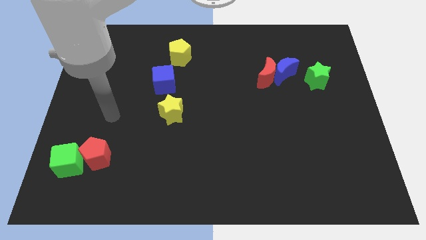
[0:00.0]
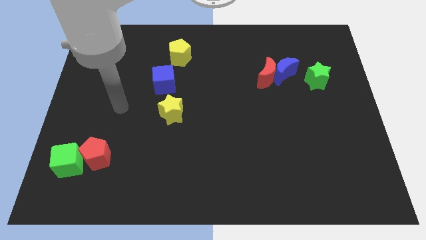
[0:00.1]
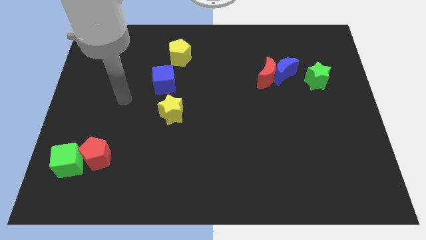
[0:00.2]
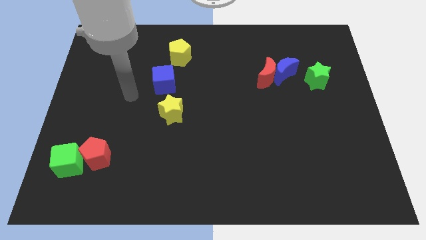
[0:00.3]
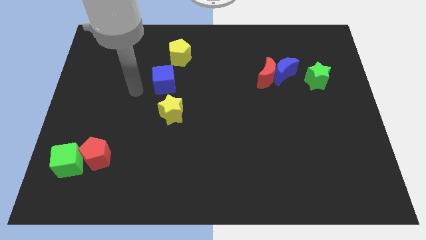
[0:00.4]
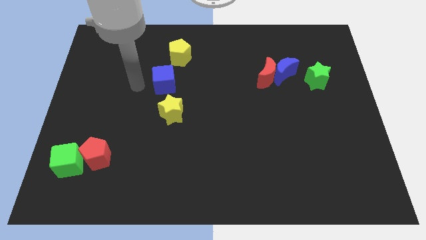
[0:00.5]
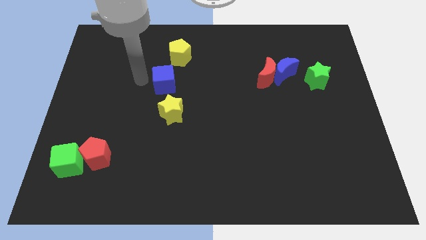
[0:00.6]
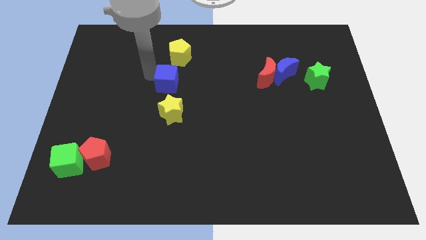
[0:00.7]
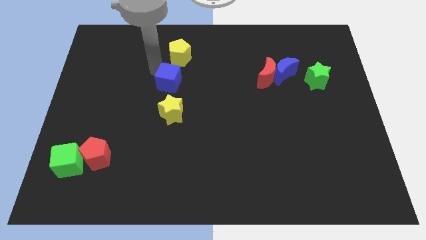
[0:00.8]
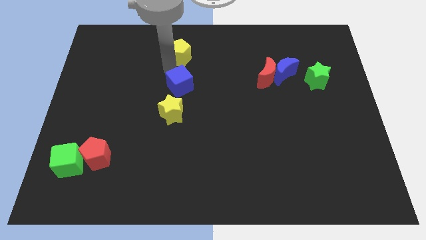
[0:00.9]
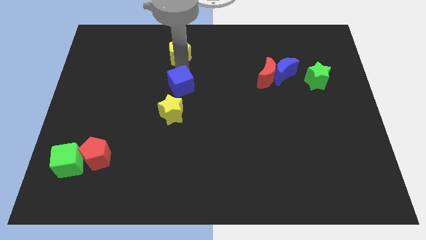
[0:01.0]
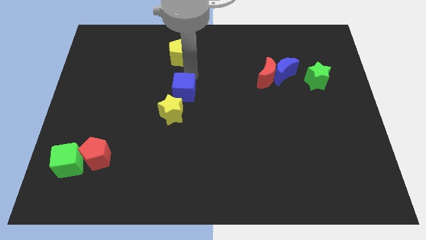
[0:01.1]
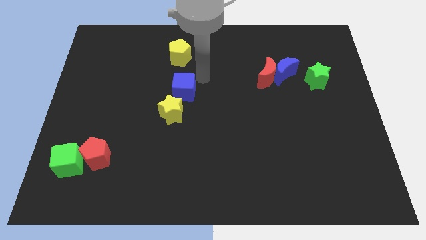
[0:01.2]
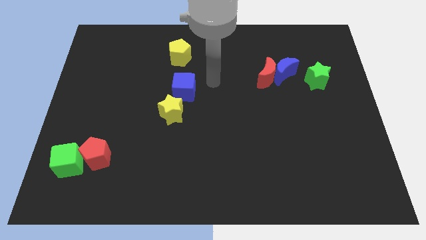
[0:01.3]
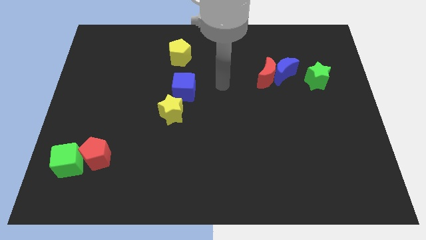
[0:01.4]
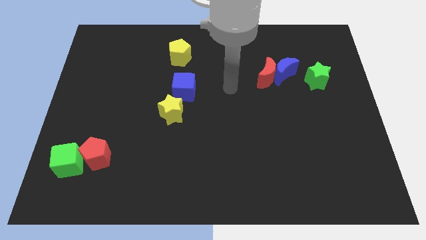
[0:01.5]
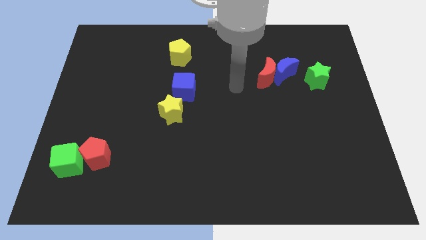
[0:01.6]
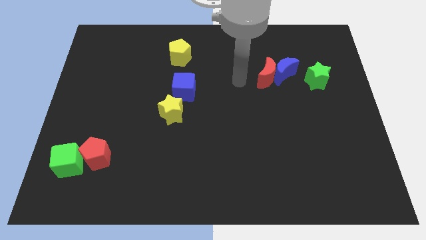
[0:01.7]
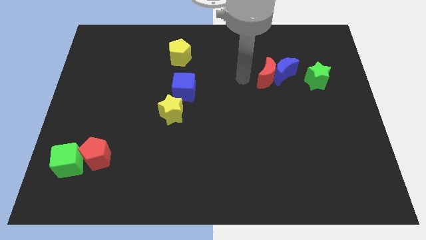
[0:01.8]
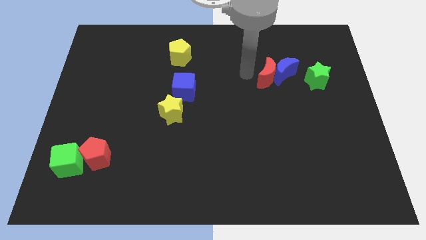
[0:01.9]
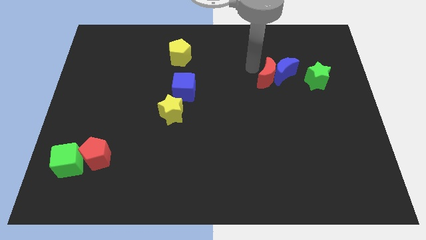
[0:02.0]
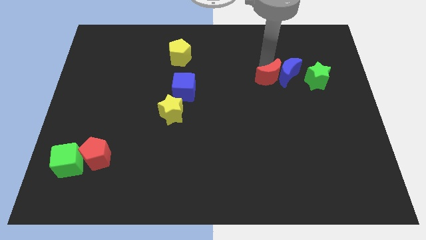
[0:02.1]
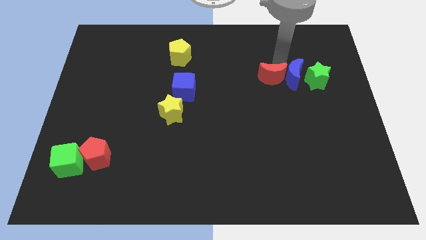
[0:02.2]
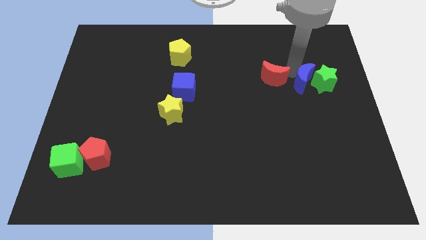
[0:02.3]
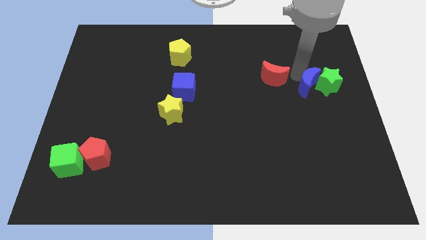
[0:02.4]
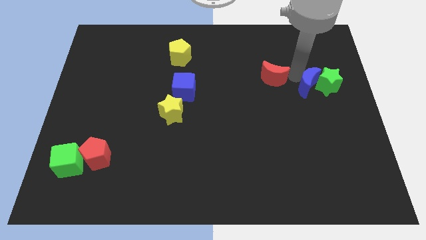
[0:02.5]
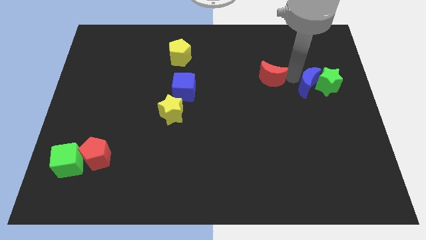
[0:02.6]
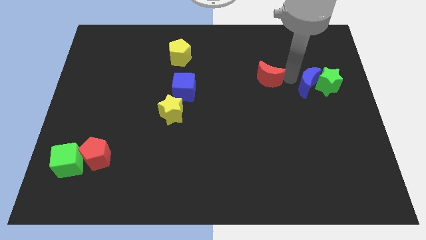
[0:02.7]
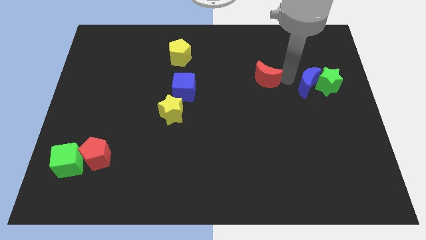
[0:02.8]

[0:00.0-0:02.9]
separate the red moon from the blue moon

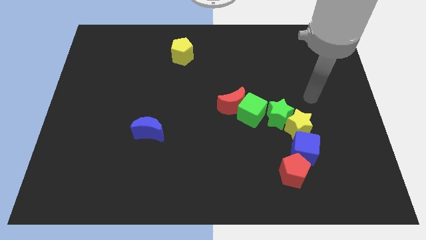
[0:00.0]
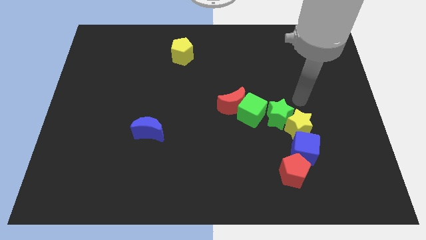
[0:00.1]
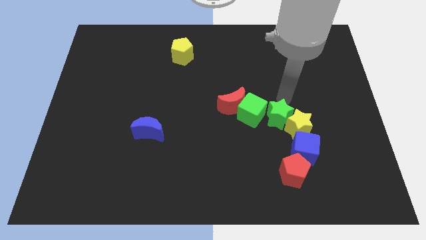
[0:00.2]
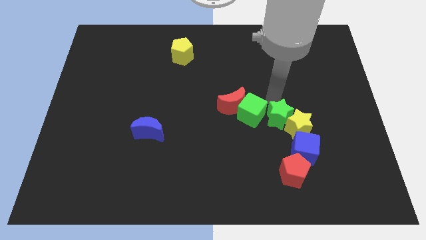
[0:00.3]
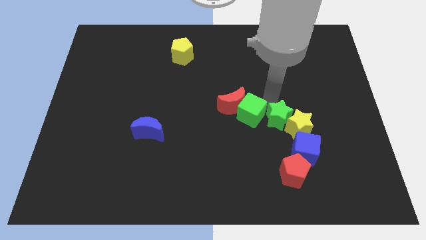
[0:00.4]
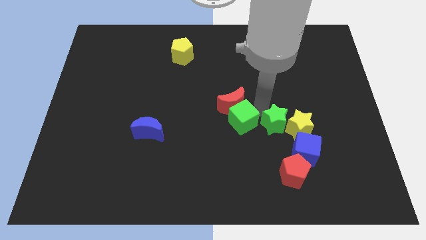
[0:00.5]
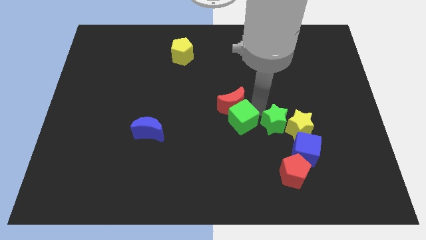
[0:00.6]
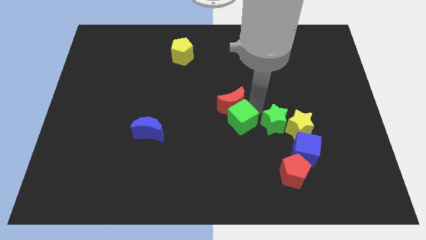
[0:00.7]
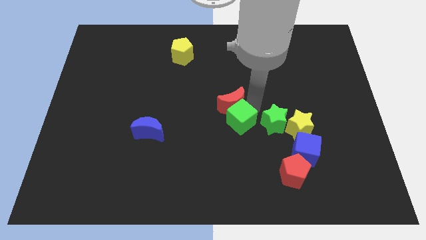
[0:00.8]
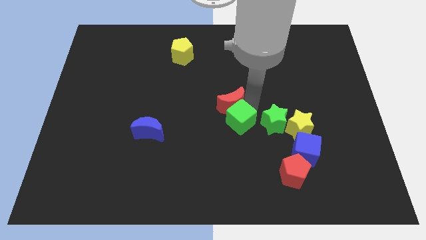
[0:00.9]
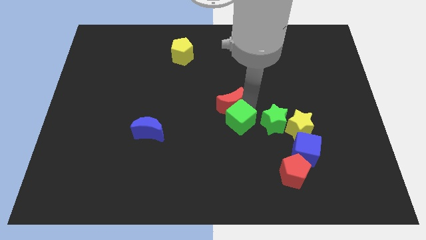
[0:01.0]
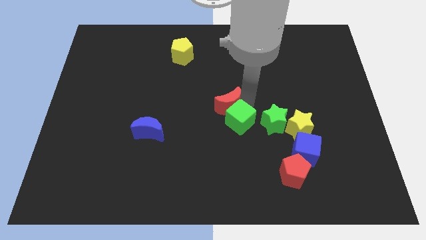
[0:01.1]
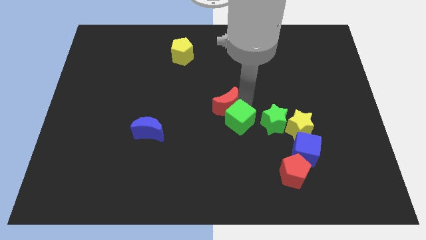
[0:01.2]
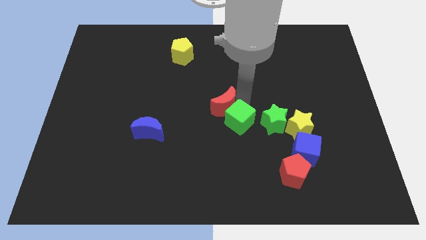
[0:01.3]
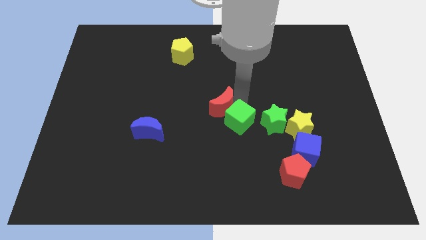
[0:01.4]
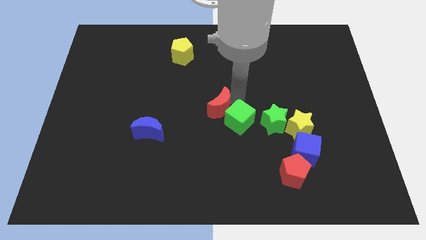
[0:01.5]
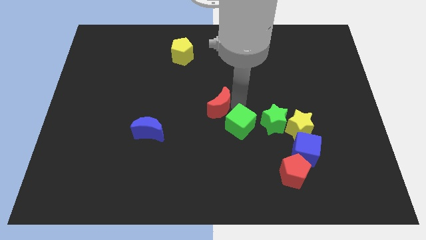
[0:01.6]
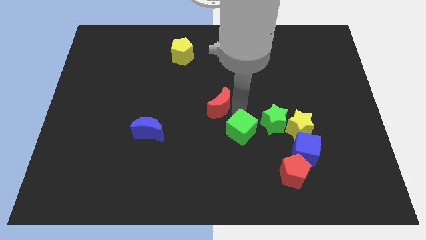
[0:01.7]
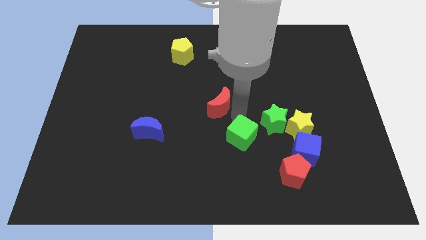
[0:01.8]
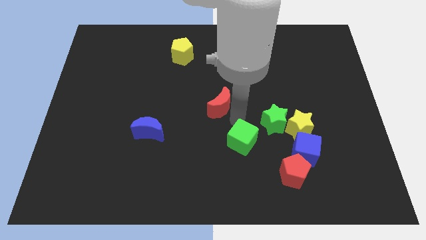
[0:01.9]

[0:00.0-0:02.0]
pull the red moon apart from the green cube

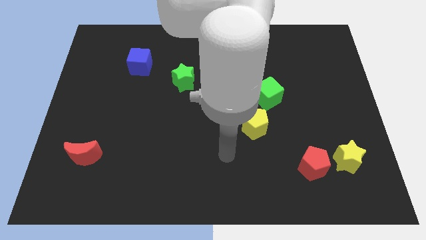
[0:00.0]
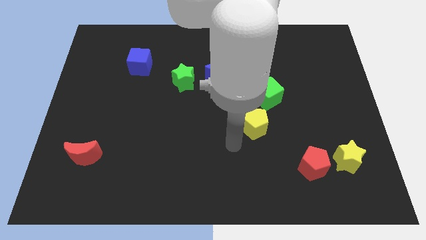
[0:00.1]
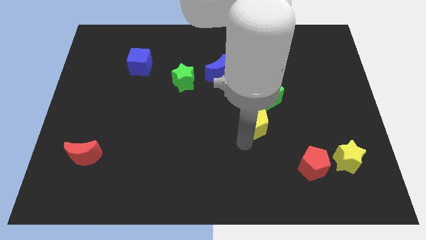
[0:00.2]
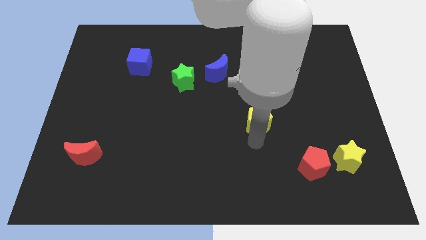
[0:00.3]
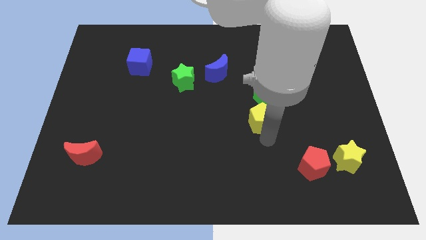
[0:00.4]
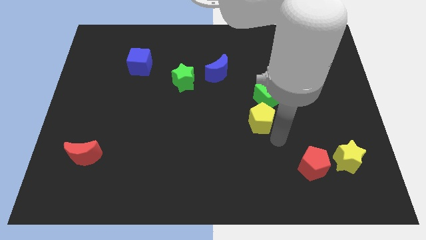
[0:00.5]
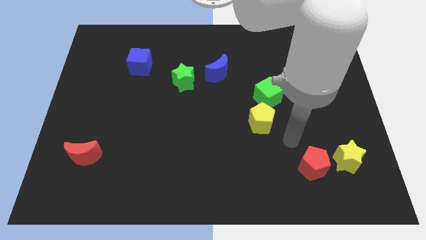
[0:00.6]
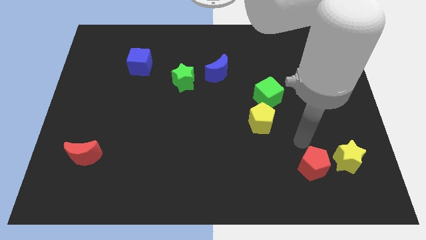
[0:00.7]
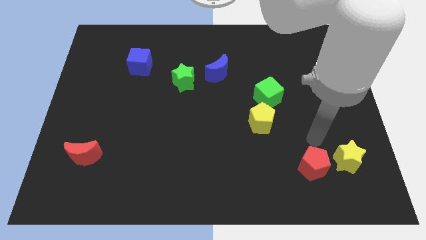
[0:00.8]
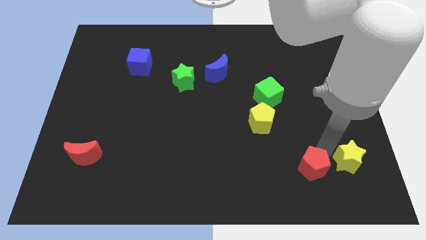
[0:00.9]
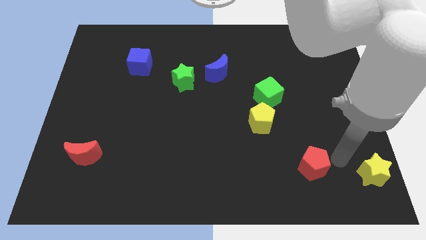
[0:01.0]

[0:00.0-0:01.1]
pull the red pentagon apart from the yellow star

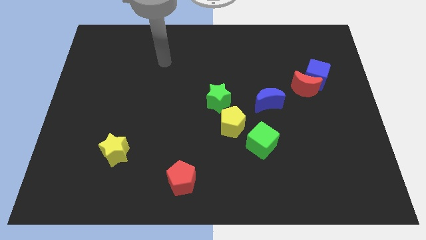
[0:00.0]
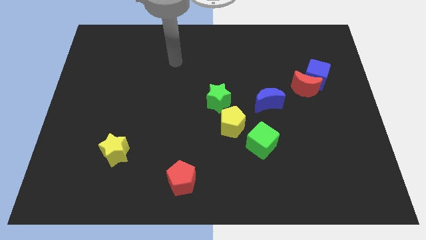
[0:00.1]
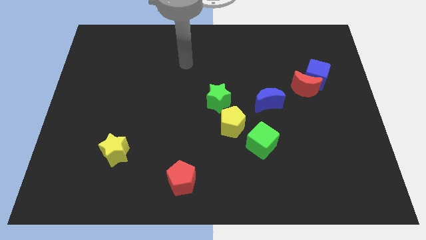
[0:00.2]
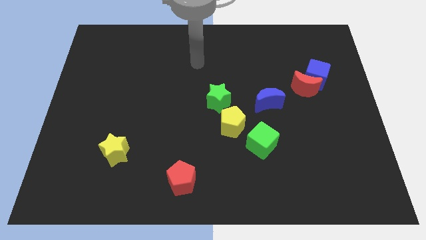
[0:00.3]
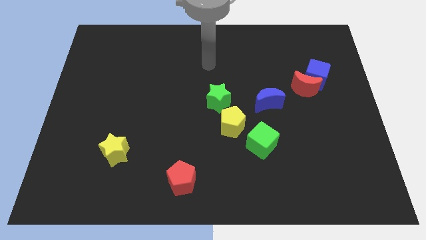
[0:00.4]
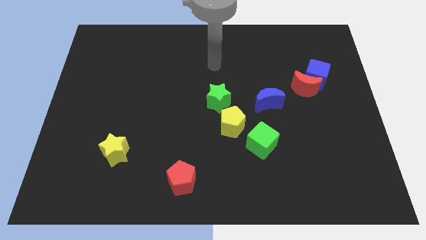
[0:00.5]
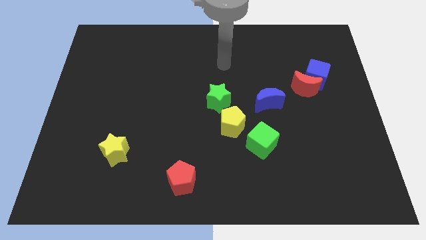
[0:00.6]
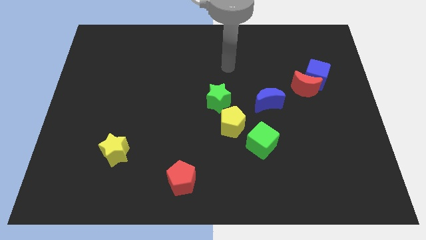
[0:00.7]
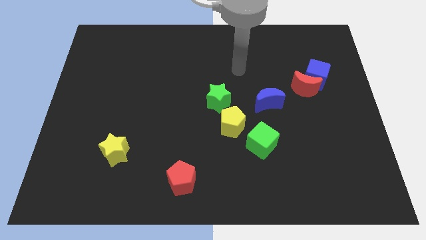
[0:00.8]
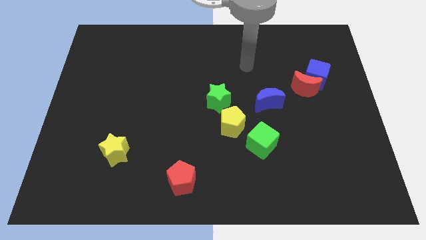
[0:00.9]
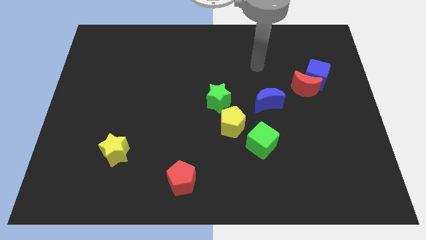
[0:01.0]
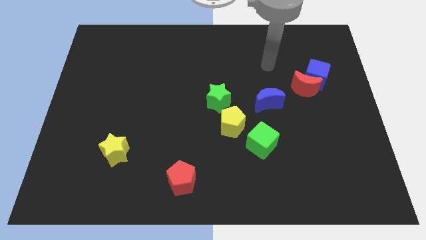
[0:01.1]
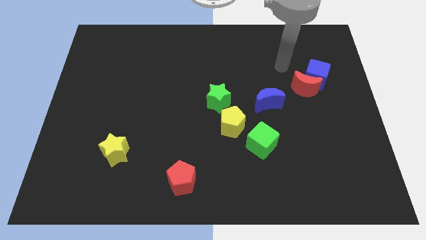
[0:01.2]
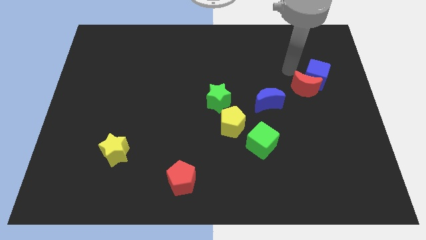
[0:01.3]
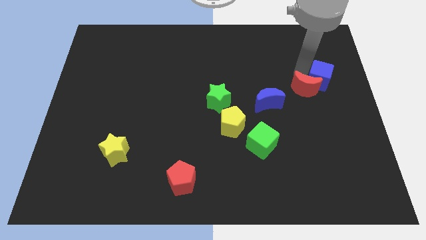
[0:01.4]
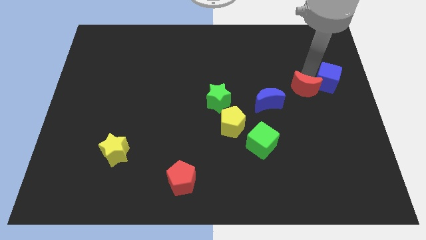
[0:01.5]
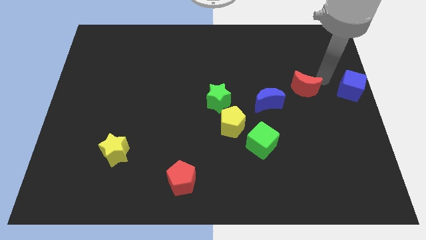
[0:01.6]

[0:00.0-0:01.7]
move the red moon away from the blue cube

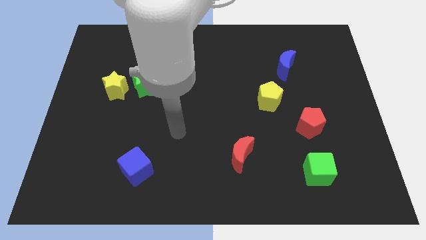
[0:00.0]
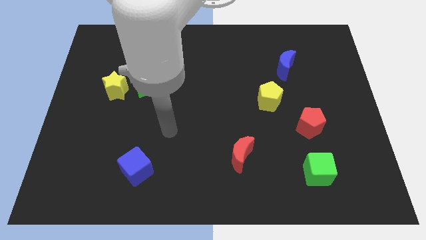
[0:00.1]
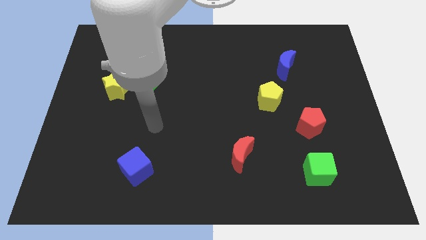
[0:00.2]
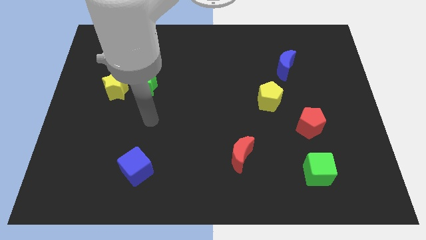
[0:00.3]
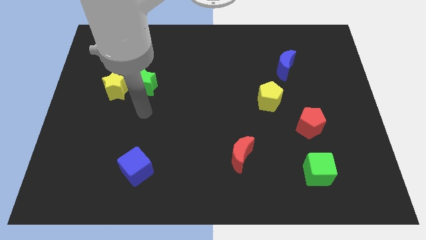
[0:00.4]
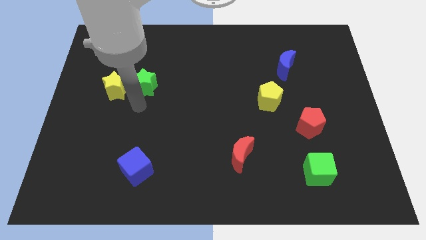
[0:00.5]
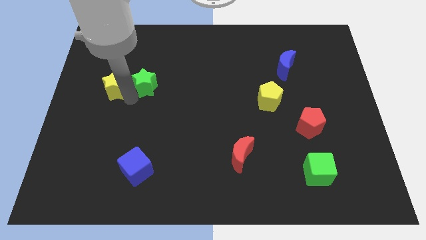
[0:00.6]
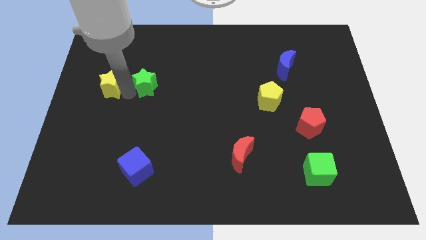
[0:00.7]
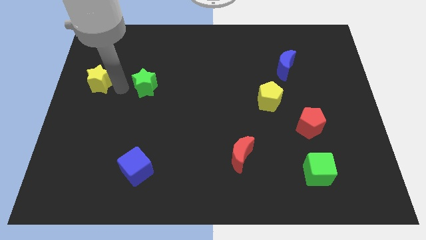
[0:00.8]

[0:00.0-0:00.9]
pull the green star apart from the yellow star

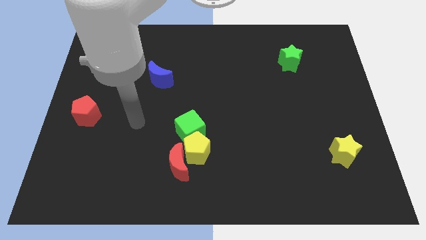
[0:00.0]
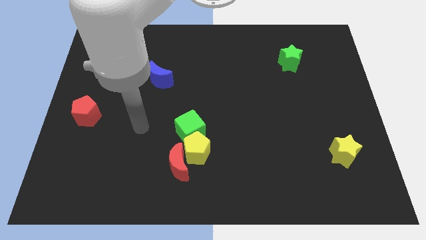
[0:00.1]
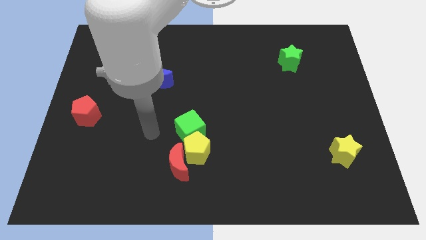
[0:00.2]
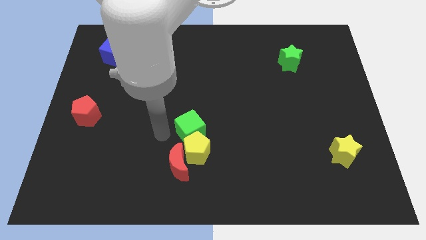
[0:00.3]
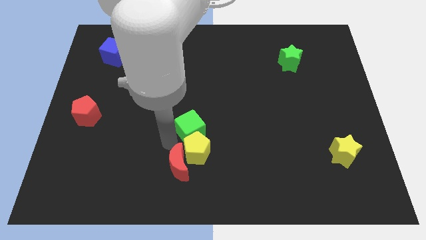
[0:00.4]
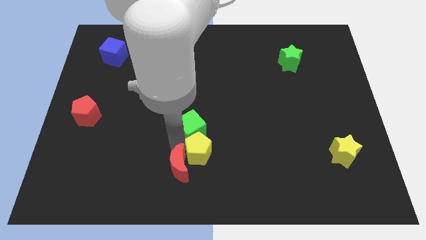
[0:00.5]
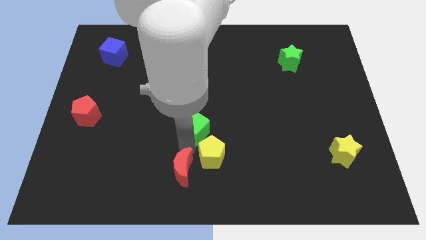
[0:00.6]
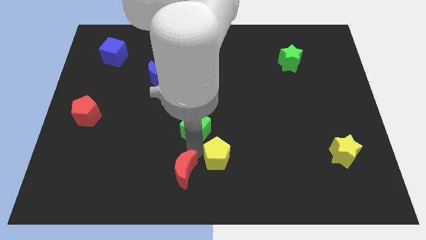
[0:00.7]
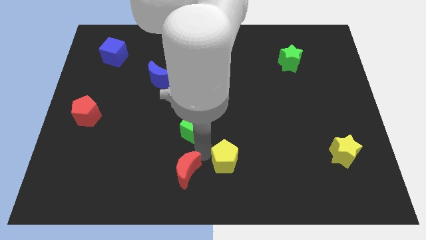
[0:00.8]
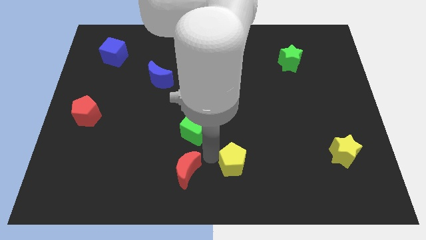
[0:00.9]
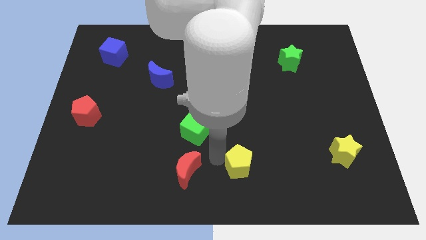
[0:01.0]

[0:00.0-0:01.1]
separate the yellow pentagon from the red moon and green cube
